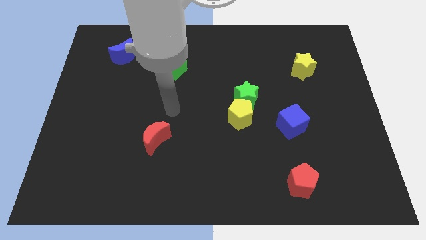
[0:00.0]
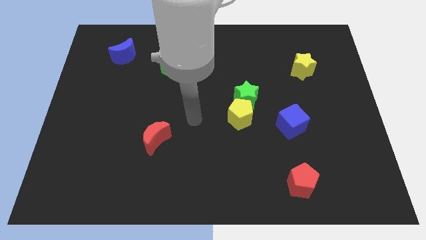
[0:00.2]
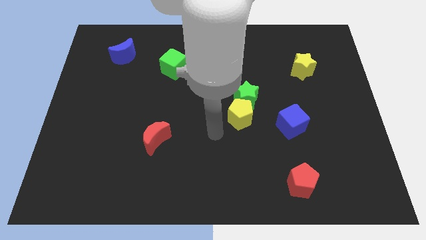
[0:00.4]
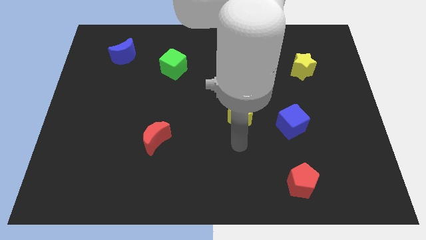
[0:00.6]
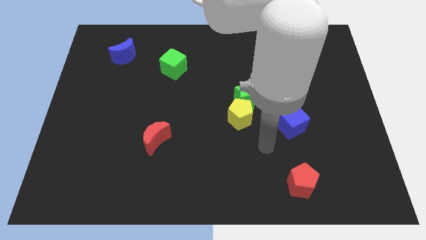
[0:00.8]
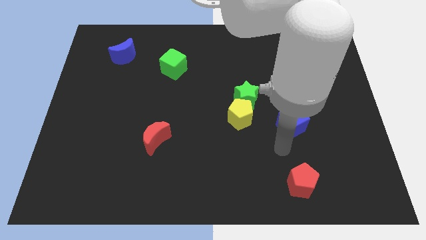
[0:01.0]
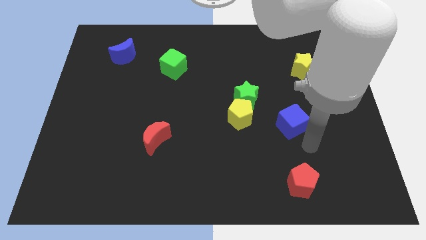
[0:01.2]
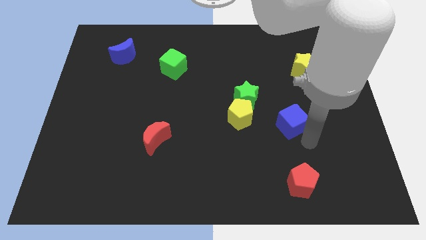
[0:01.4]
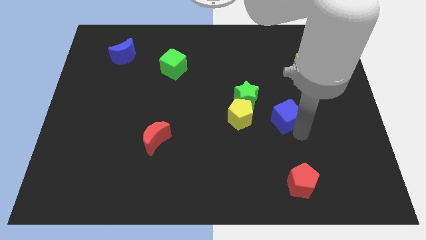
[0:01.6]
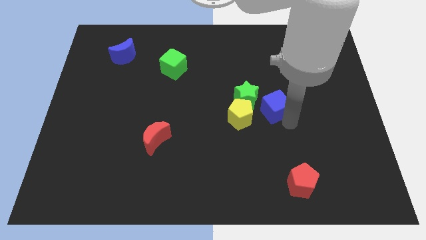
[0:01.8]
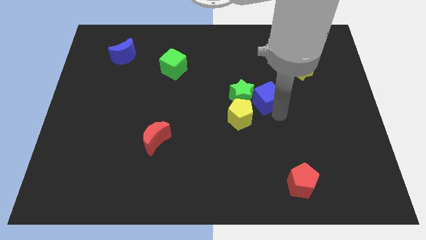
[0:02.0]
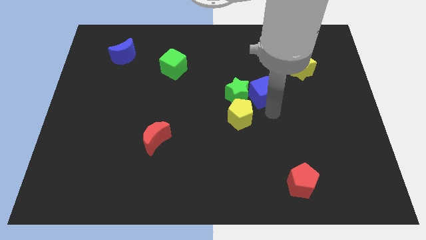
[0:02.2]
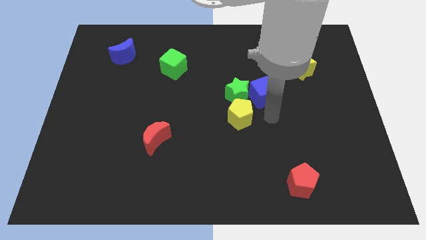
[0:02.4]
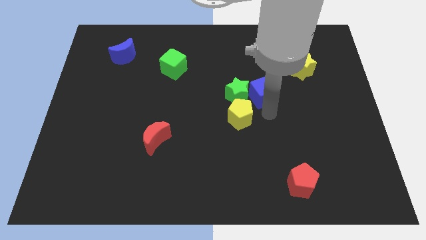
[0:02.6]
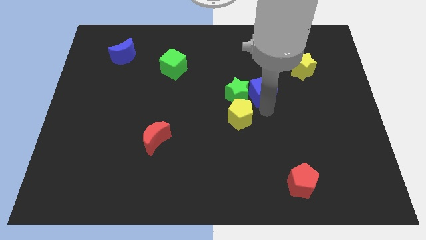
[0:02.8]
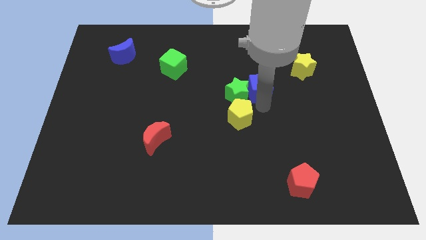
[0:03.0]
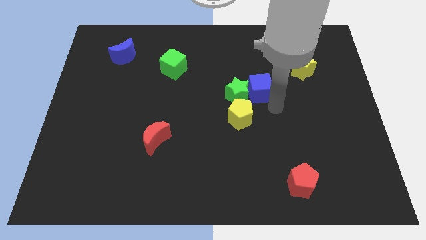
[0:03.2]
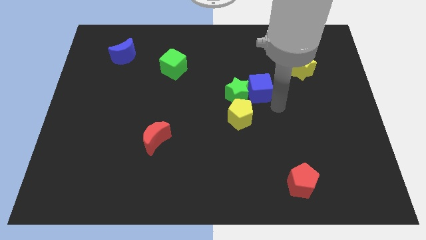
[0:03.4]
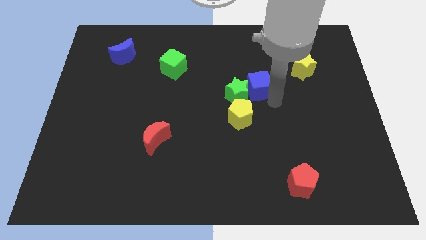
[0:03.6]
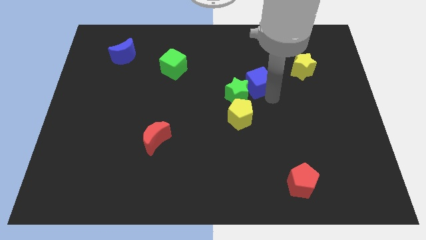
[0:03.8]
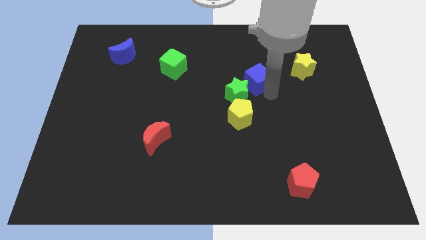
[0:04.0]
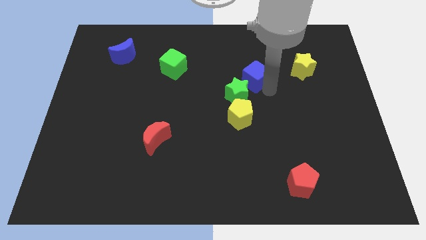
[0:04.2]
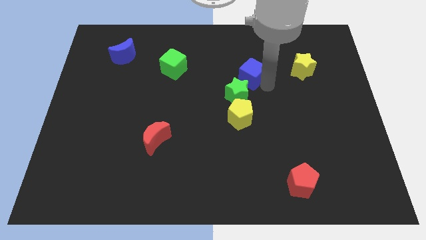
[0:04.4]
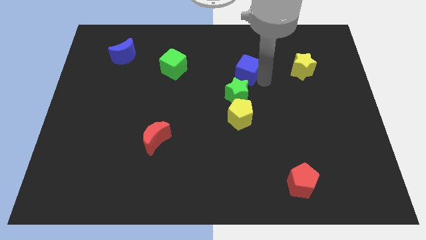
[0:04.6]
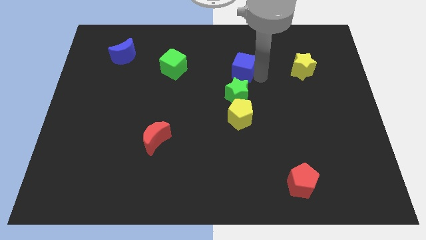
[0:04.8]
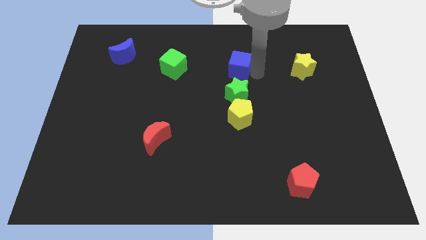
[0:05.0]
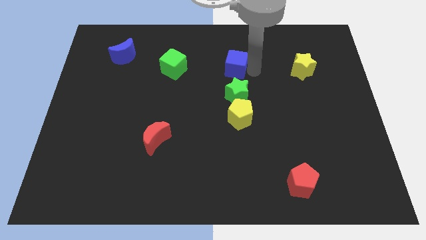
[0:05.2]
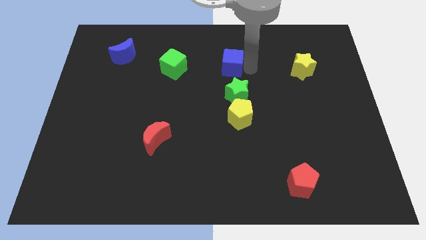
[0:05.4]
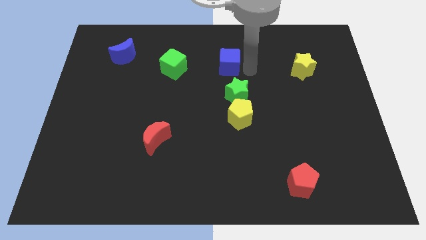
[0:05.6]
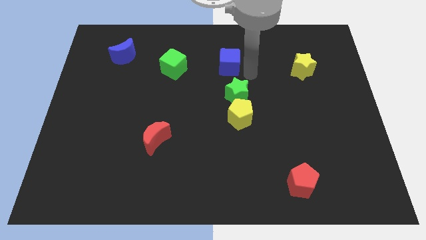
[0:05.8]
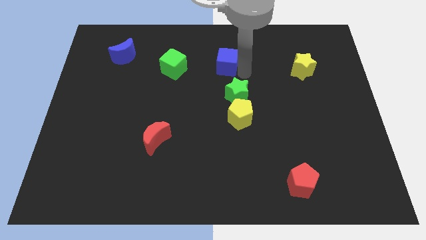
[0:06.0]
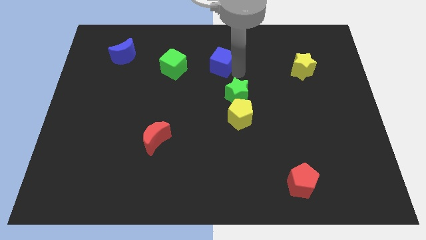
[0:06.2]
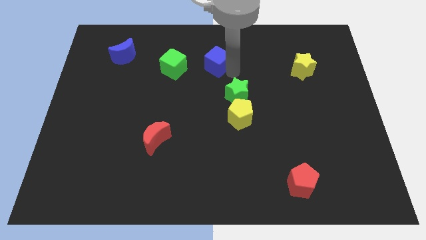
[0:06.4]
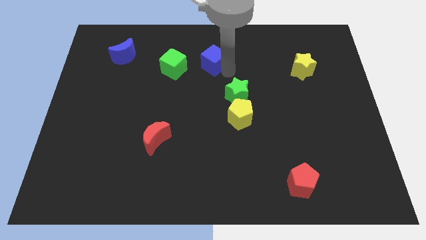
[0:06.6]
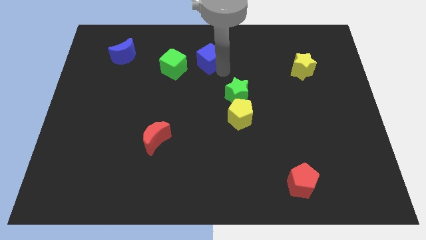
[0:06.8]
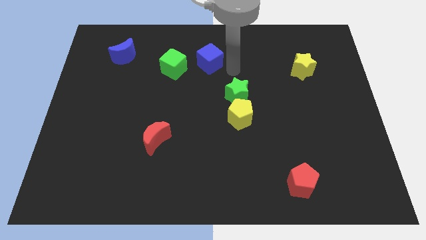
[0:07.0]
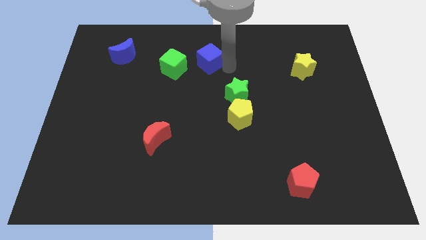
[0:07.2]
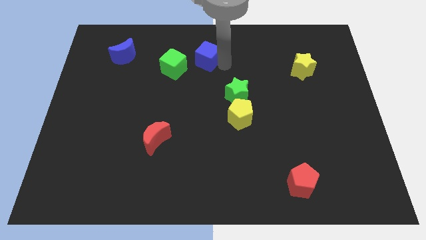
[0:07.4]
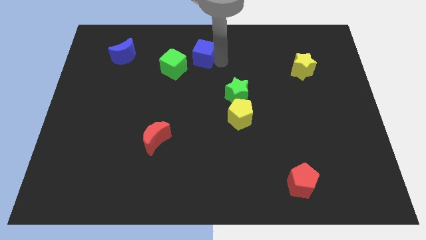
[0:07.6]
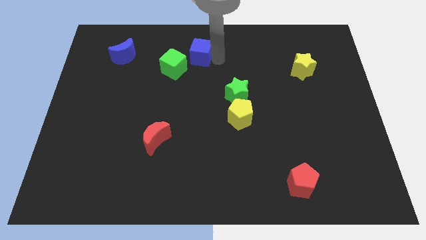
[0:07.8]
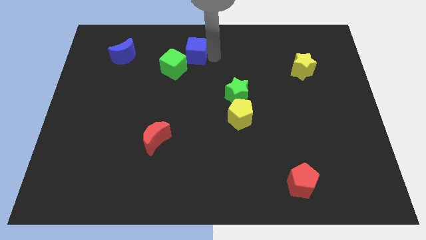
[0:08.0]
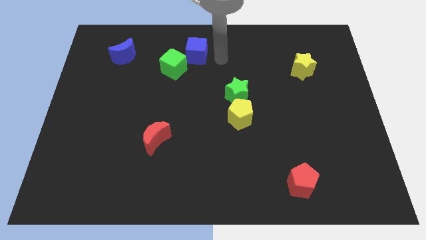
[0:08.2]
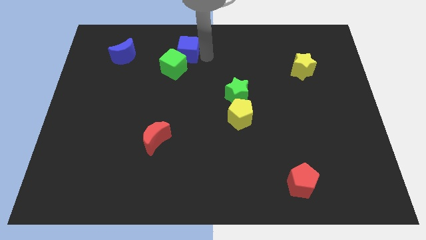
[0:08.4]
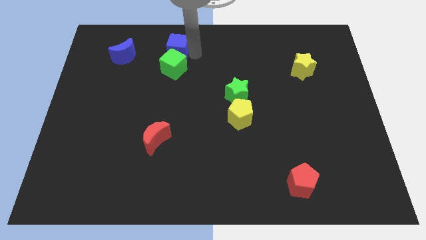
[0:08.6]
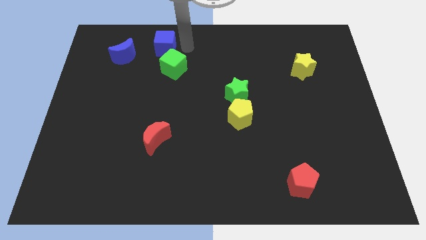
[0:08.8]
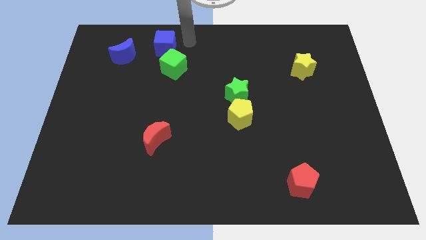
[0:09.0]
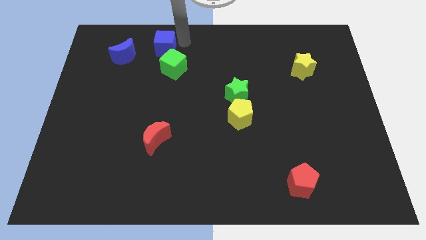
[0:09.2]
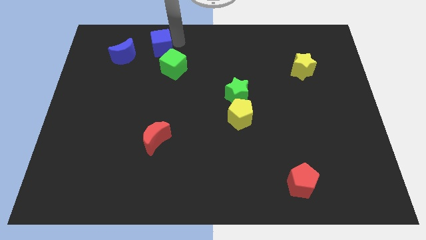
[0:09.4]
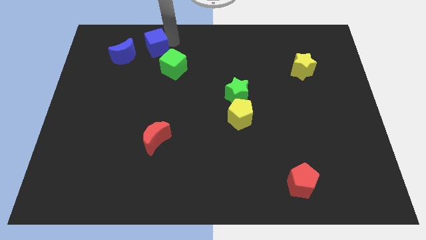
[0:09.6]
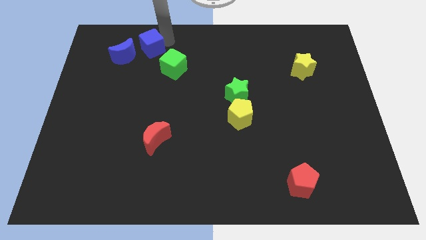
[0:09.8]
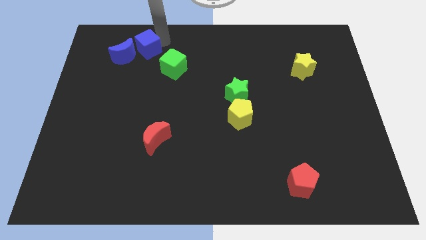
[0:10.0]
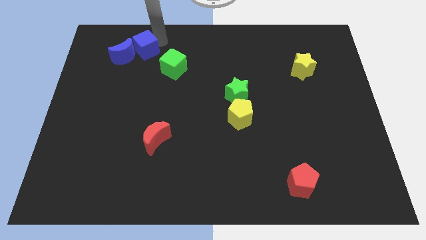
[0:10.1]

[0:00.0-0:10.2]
push the blue cube to the blue moon

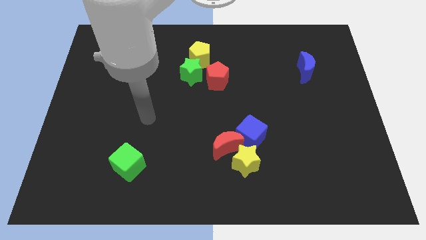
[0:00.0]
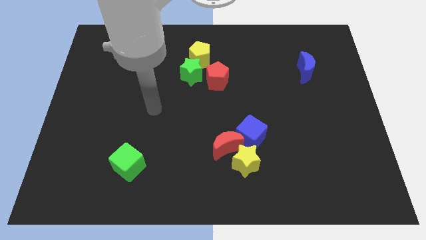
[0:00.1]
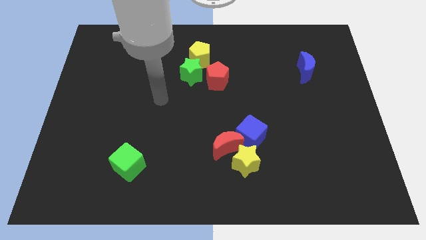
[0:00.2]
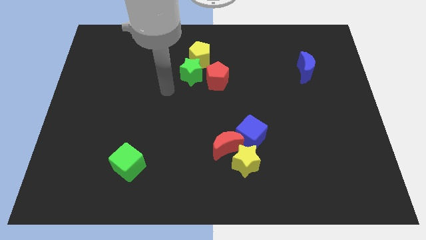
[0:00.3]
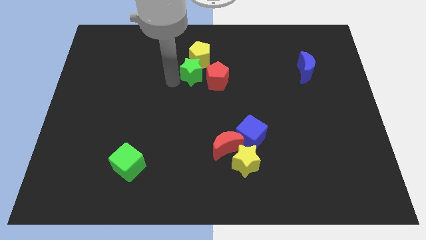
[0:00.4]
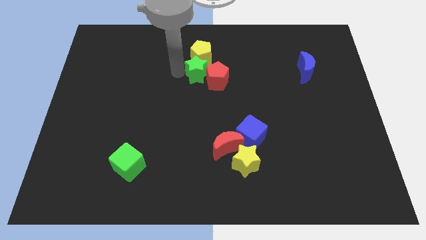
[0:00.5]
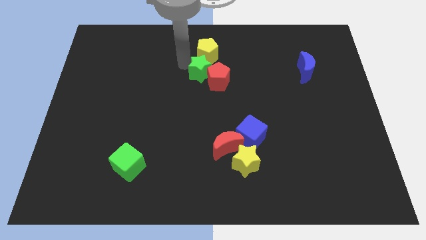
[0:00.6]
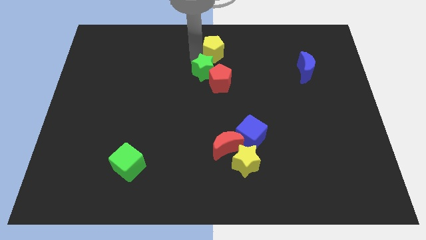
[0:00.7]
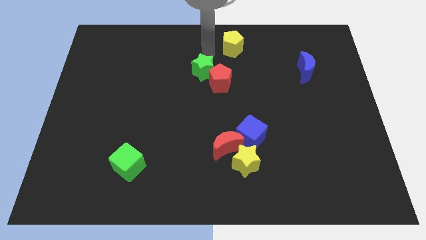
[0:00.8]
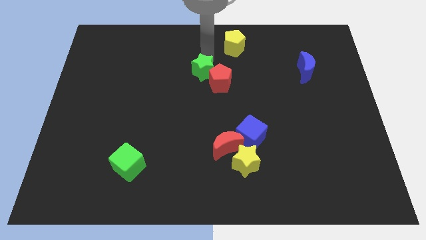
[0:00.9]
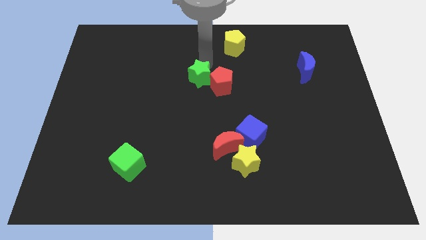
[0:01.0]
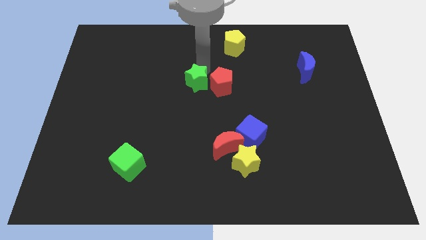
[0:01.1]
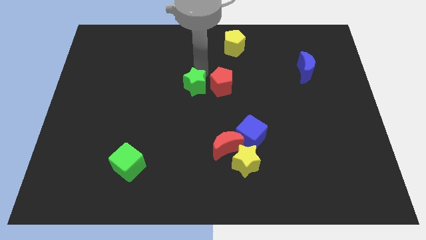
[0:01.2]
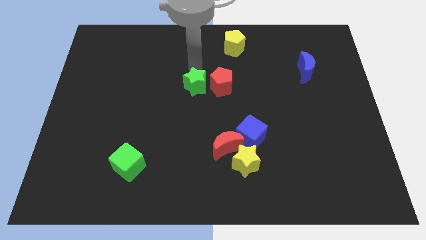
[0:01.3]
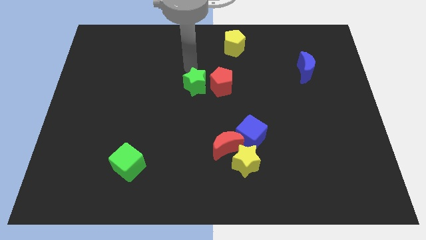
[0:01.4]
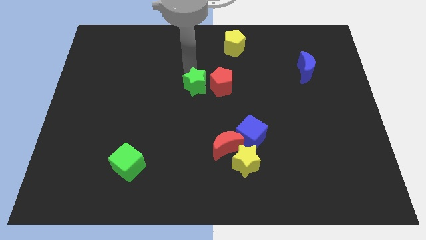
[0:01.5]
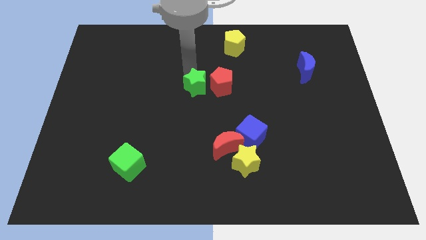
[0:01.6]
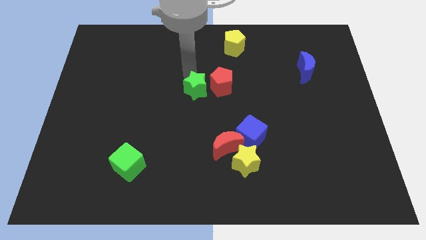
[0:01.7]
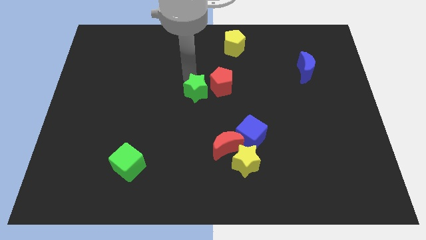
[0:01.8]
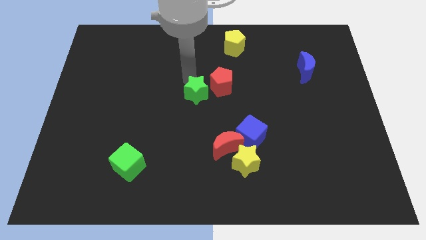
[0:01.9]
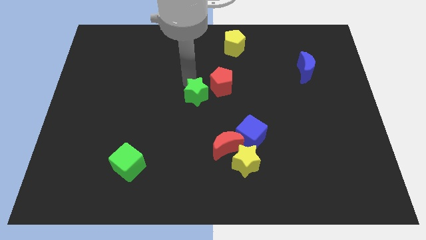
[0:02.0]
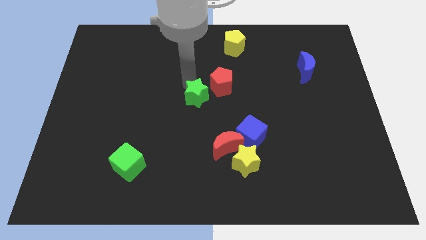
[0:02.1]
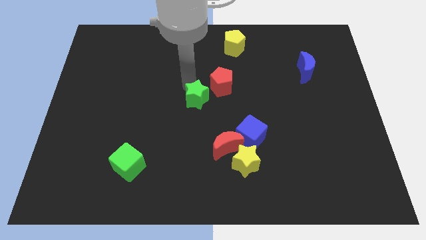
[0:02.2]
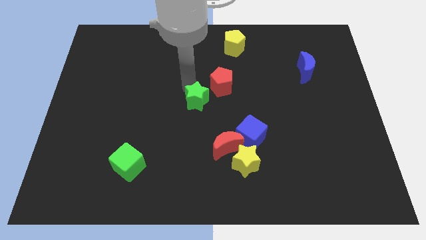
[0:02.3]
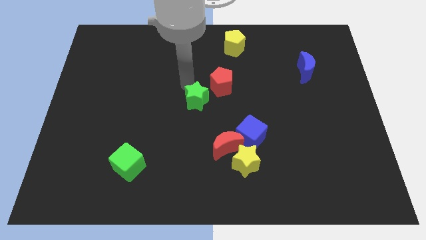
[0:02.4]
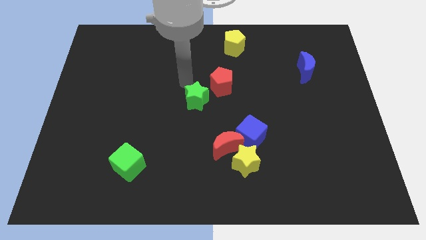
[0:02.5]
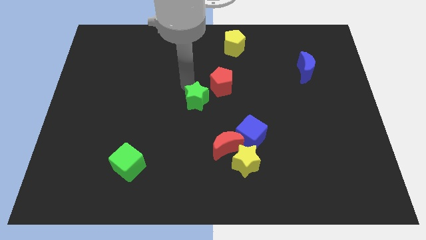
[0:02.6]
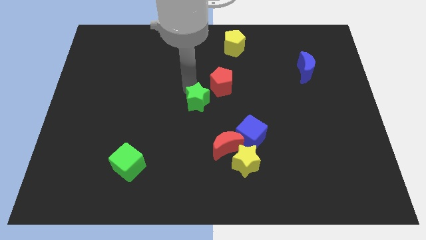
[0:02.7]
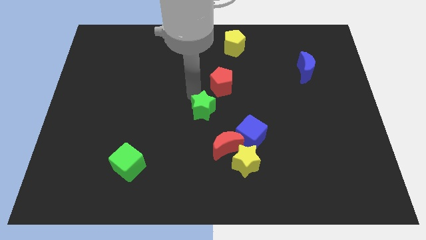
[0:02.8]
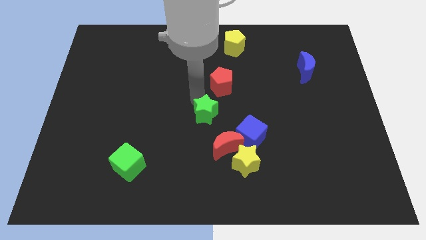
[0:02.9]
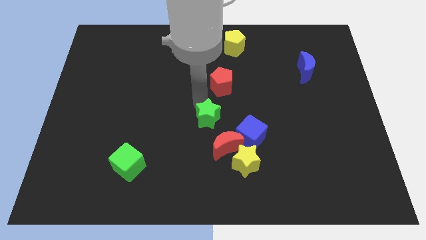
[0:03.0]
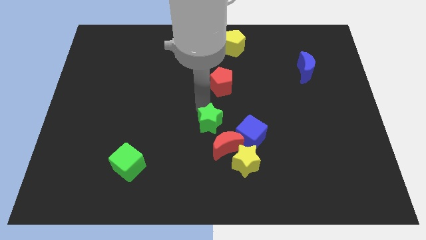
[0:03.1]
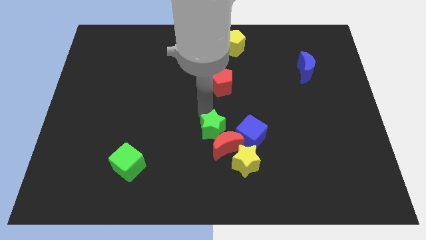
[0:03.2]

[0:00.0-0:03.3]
slide the green star next to the red moon
